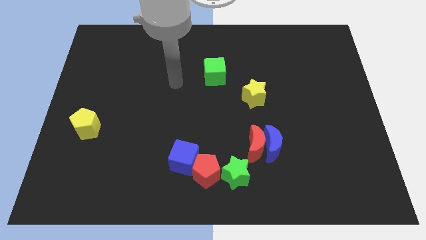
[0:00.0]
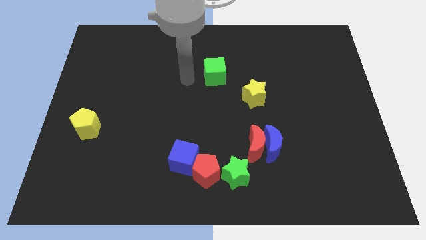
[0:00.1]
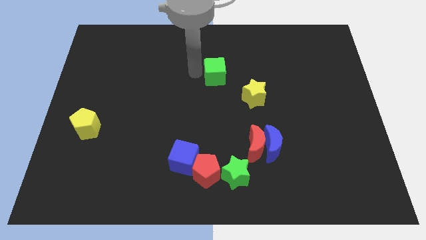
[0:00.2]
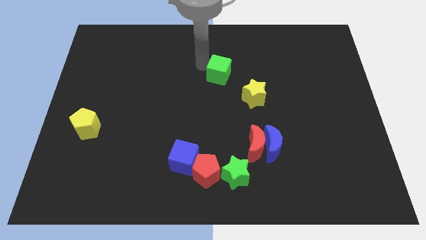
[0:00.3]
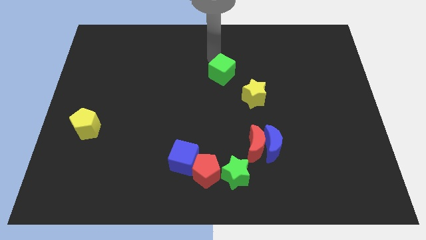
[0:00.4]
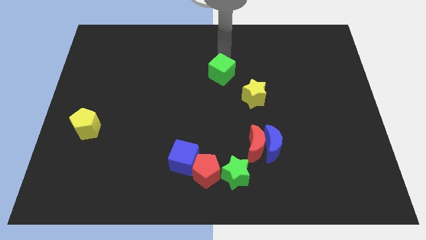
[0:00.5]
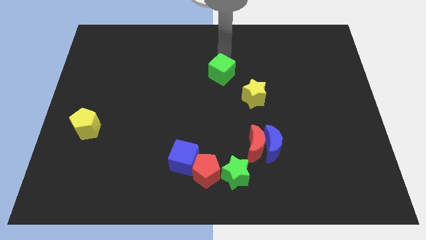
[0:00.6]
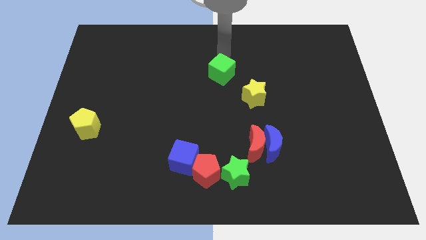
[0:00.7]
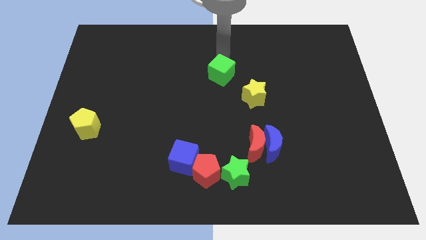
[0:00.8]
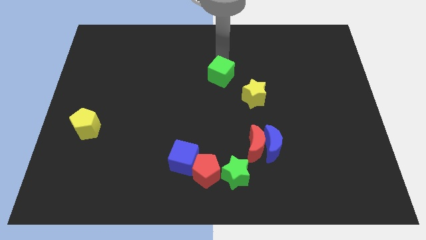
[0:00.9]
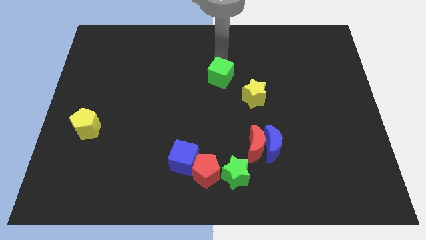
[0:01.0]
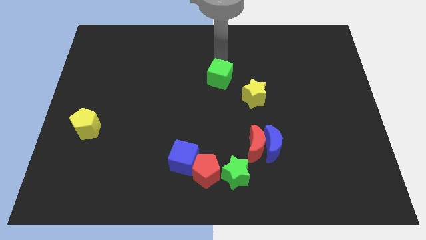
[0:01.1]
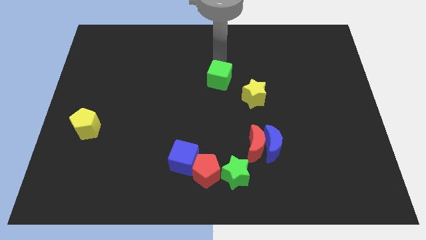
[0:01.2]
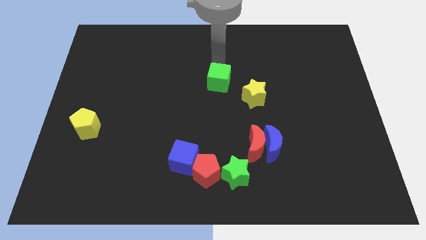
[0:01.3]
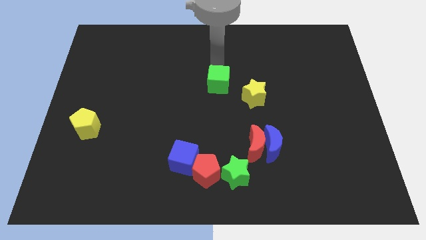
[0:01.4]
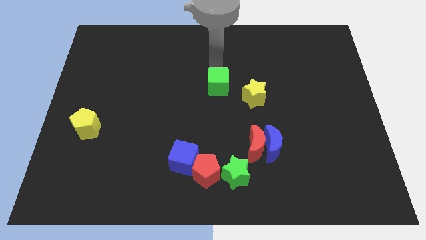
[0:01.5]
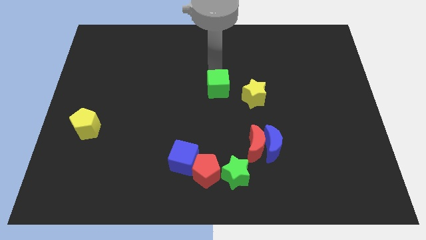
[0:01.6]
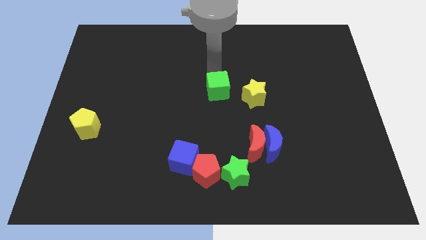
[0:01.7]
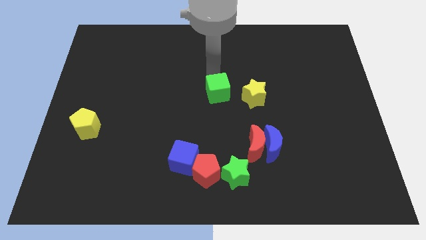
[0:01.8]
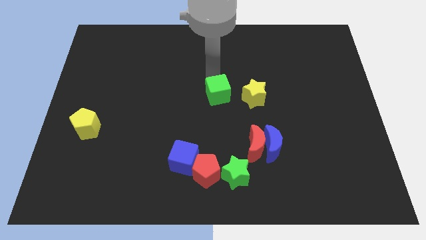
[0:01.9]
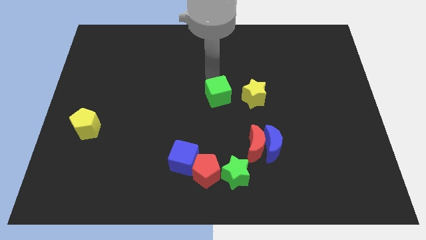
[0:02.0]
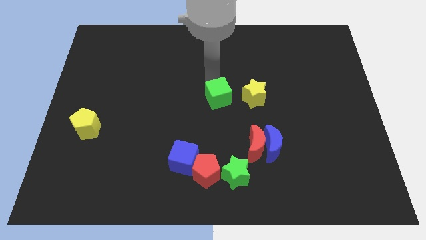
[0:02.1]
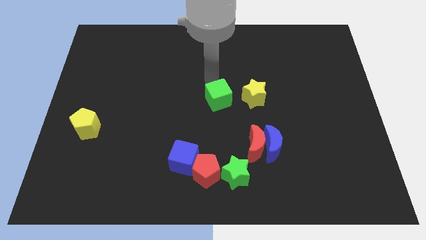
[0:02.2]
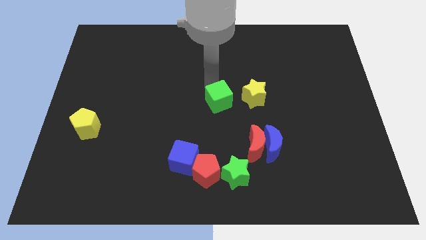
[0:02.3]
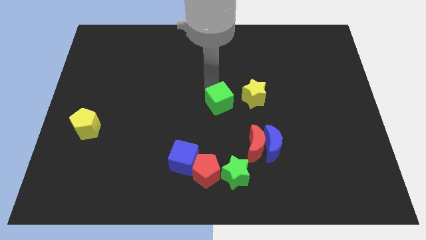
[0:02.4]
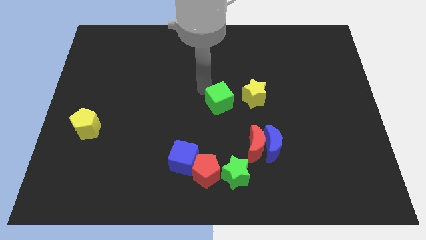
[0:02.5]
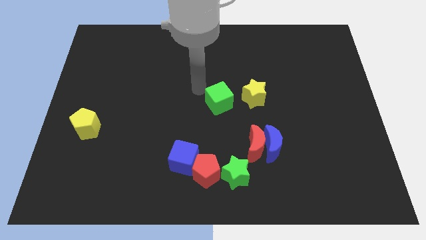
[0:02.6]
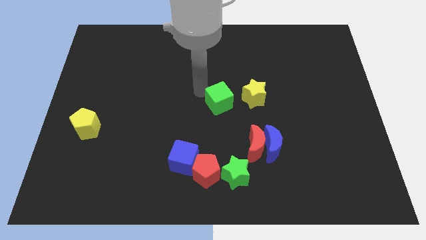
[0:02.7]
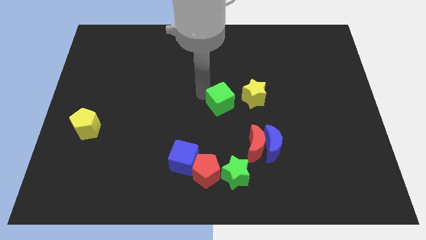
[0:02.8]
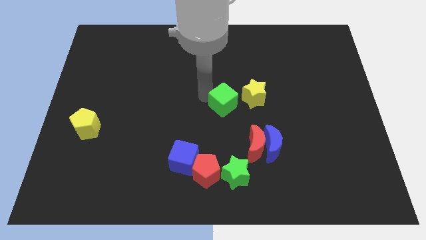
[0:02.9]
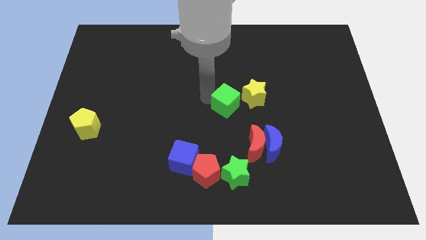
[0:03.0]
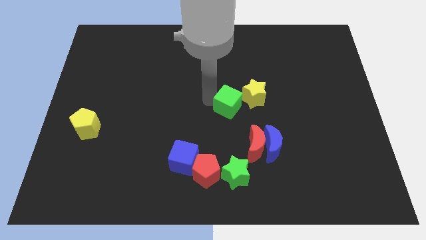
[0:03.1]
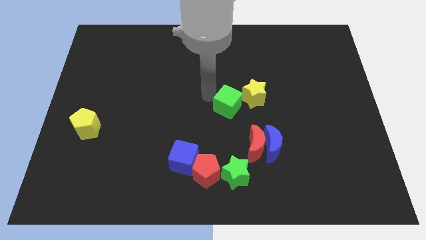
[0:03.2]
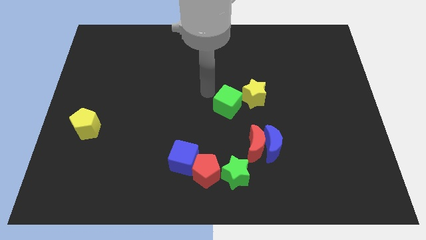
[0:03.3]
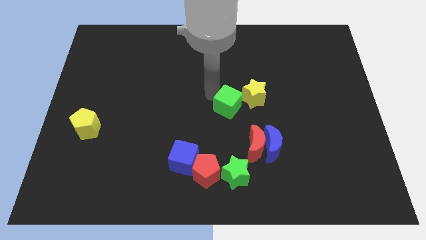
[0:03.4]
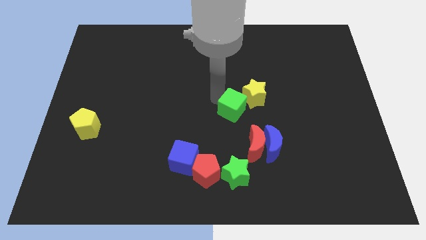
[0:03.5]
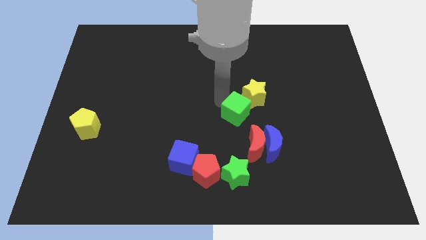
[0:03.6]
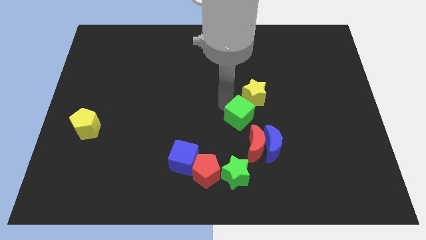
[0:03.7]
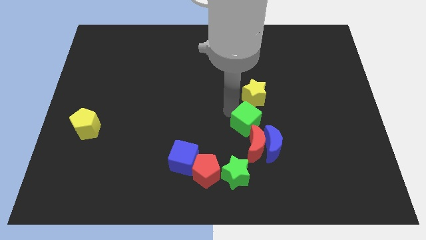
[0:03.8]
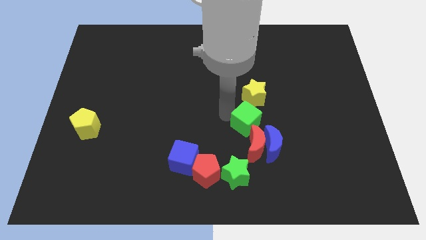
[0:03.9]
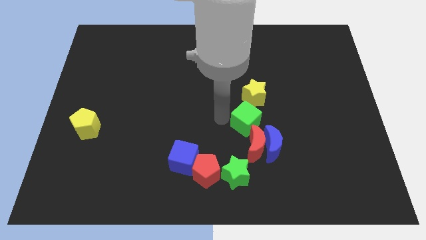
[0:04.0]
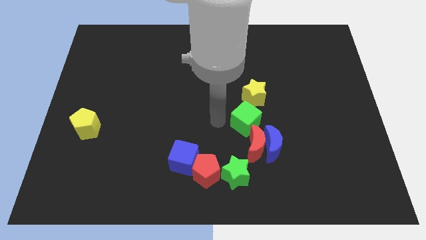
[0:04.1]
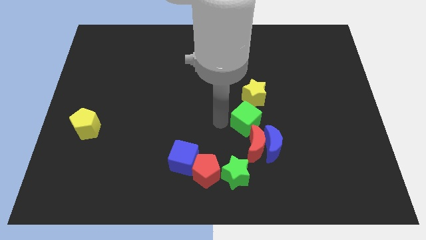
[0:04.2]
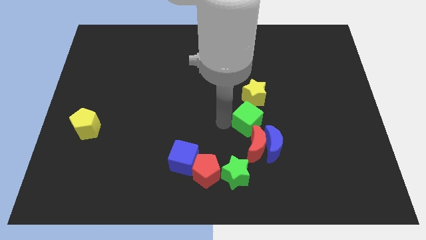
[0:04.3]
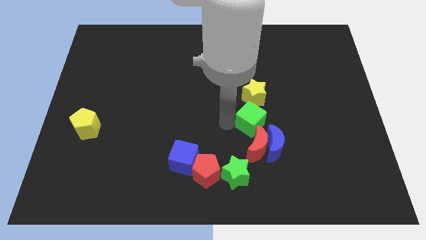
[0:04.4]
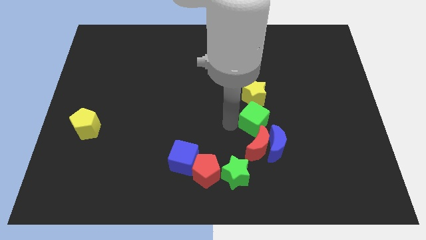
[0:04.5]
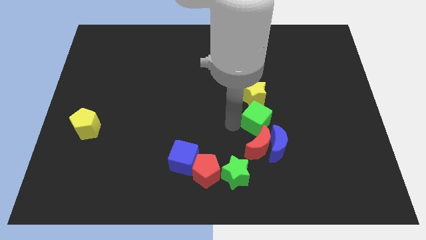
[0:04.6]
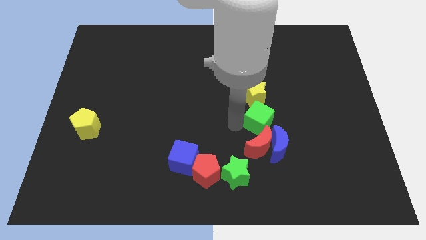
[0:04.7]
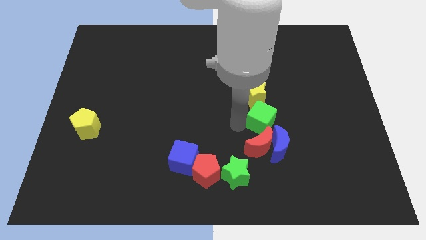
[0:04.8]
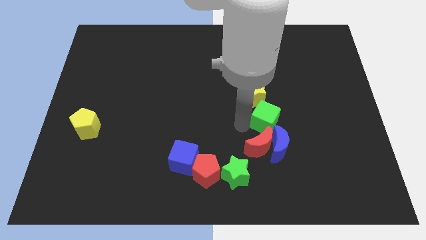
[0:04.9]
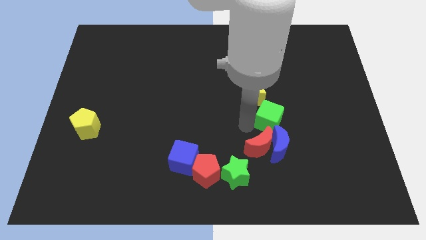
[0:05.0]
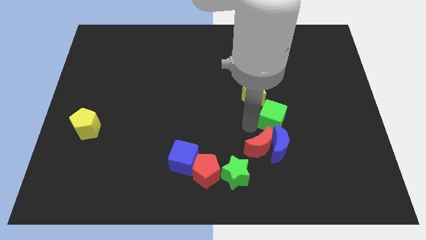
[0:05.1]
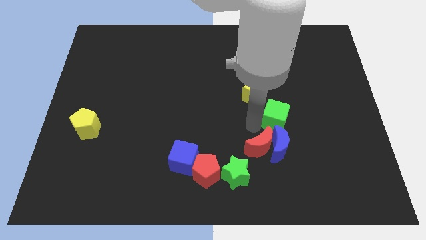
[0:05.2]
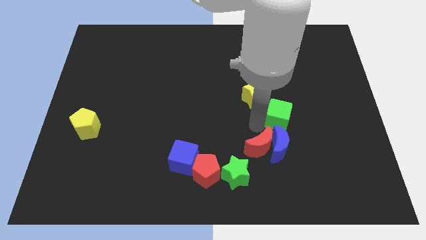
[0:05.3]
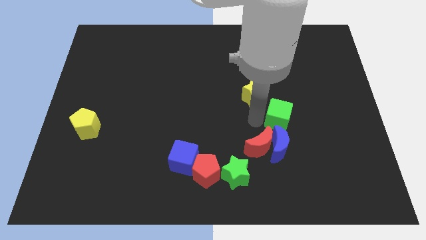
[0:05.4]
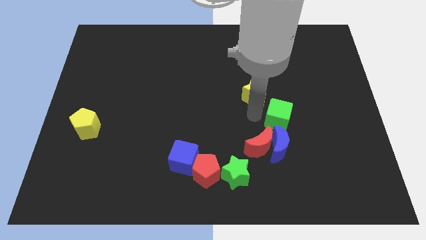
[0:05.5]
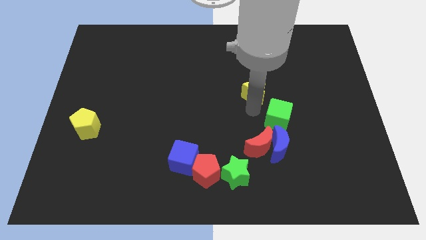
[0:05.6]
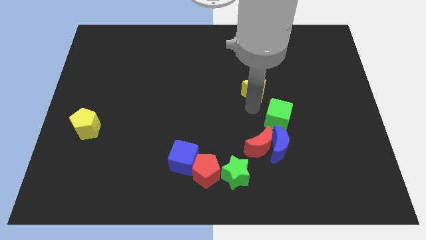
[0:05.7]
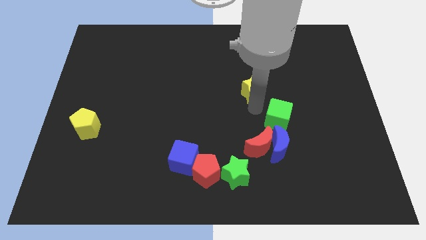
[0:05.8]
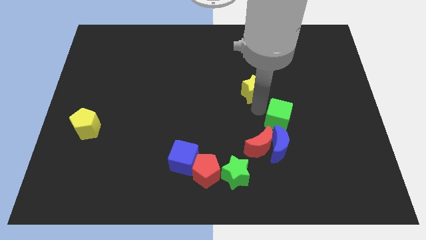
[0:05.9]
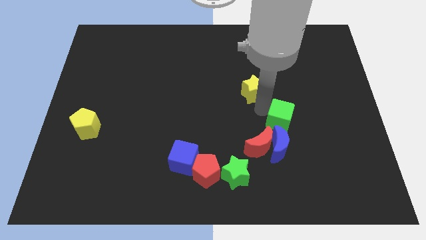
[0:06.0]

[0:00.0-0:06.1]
move the green cube to the top right side of the blue moon

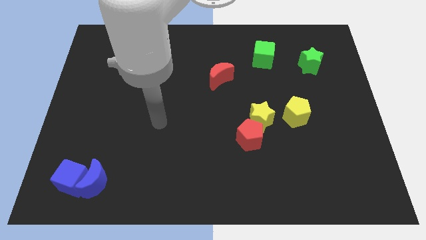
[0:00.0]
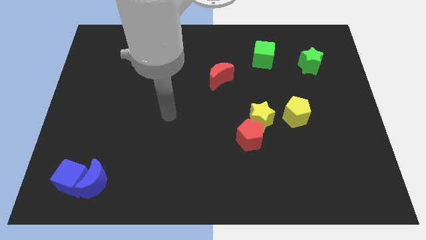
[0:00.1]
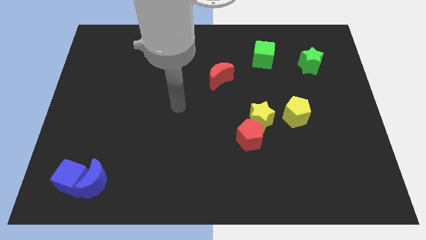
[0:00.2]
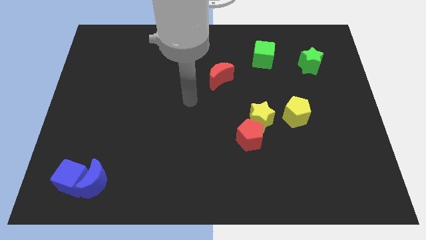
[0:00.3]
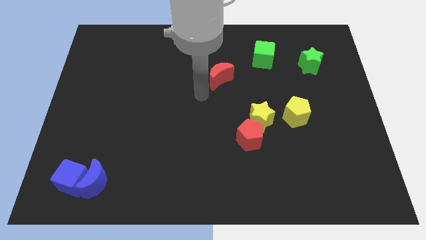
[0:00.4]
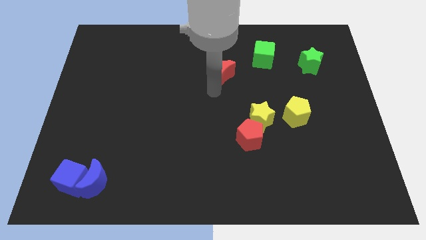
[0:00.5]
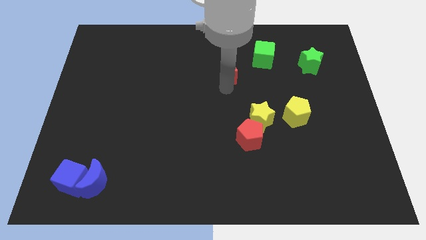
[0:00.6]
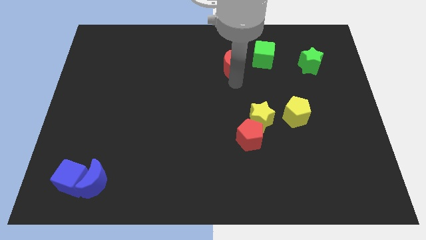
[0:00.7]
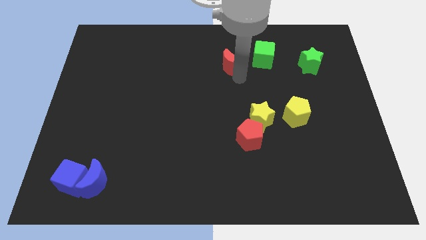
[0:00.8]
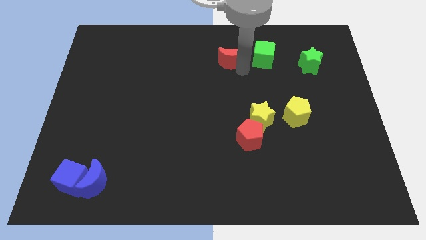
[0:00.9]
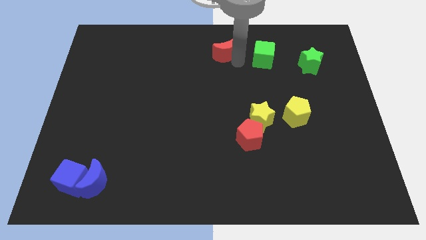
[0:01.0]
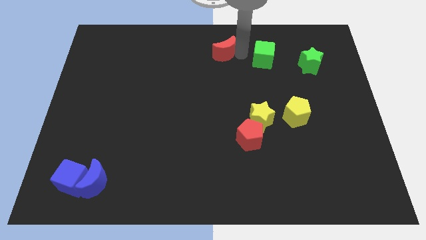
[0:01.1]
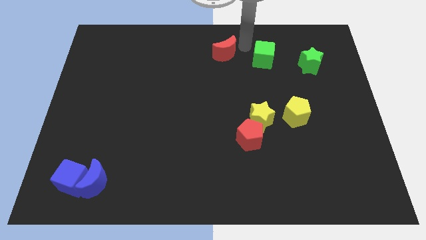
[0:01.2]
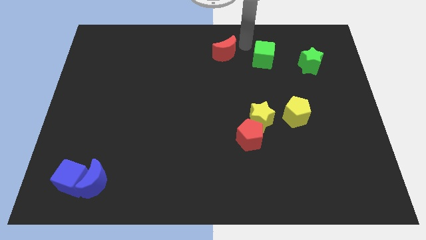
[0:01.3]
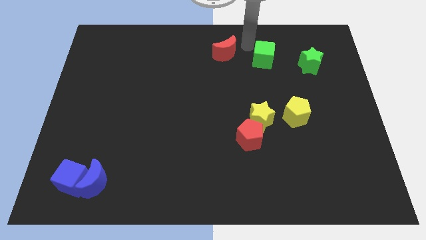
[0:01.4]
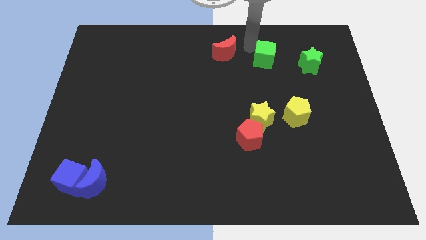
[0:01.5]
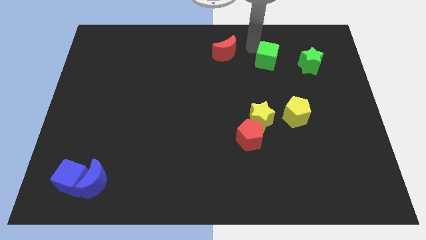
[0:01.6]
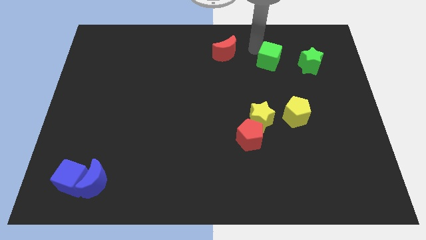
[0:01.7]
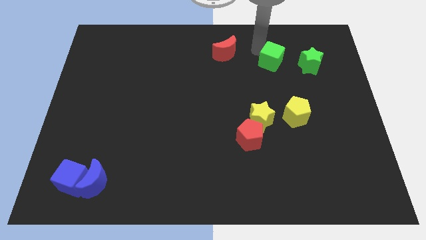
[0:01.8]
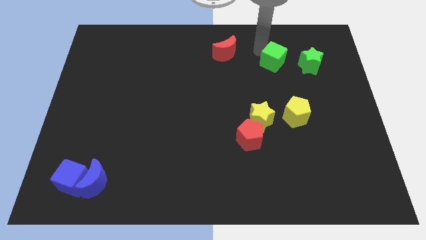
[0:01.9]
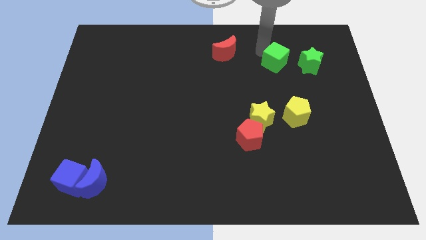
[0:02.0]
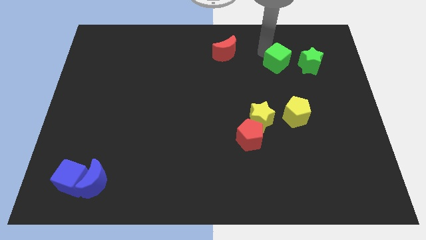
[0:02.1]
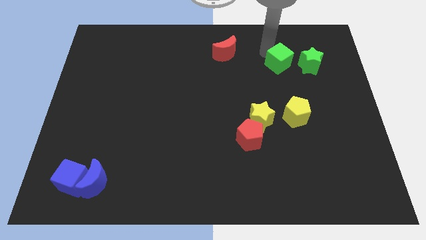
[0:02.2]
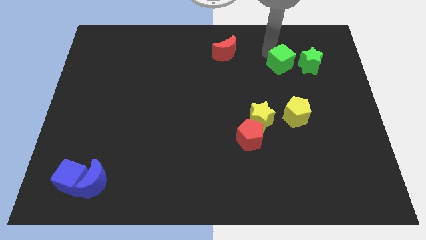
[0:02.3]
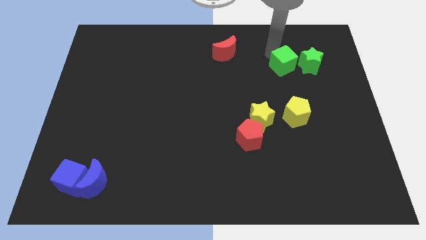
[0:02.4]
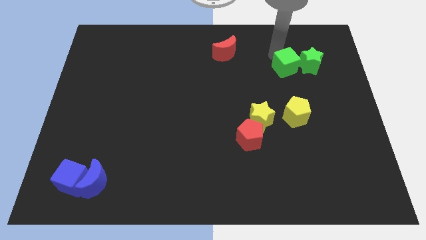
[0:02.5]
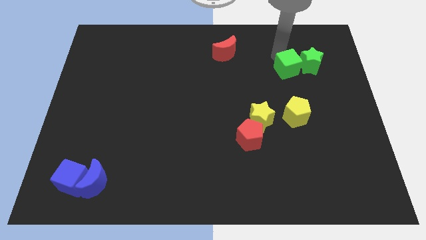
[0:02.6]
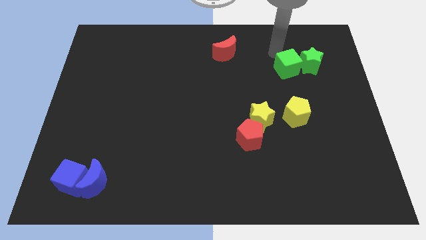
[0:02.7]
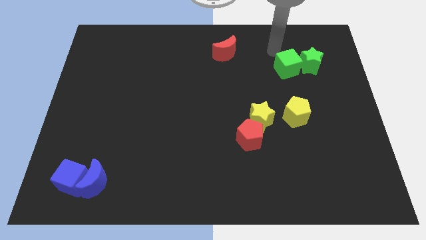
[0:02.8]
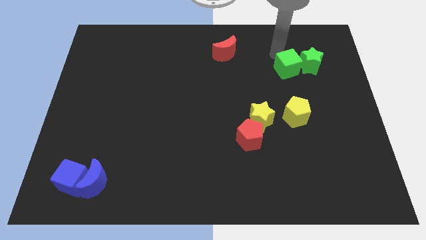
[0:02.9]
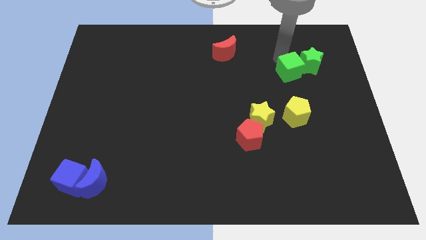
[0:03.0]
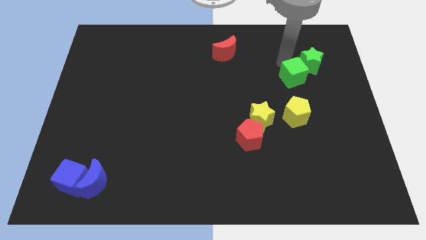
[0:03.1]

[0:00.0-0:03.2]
put the green cube to the bottom of the green star
